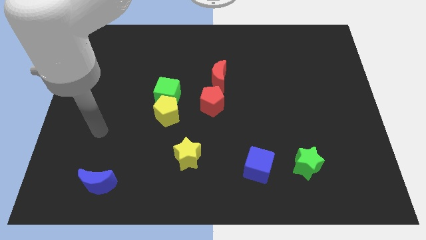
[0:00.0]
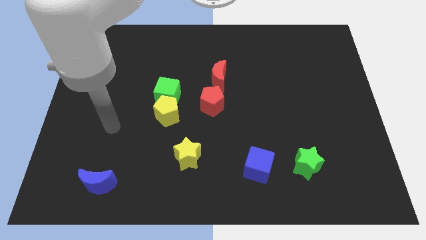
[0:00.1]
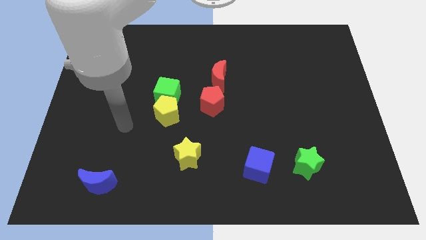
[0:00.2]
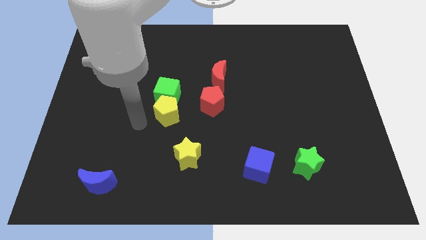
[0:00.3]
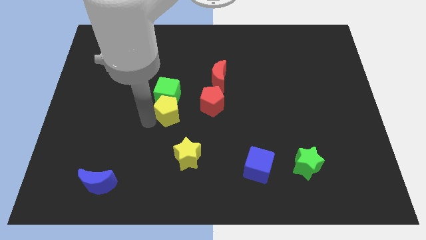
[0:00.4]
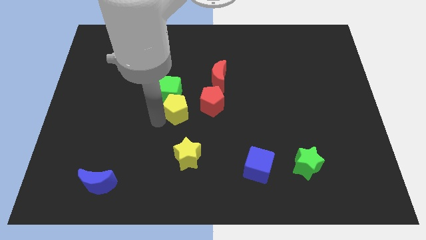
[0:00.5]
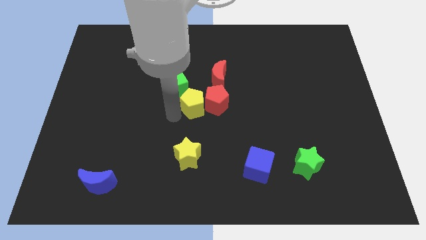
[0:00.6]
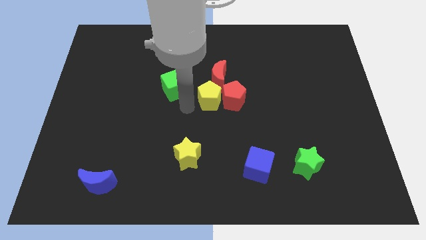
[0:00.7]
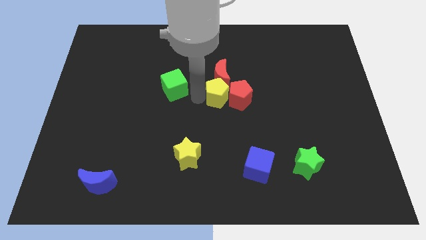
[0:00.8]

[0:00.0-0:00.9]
separate the green cube from the yellow pentagon

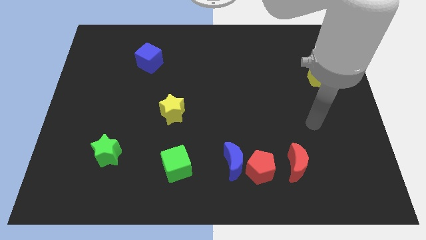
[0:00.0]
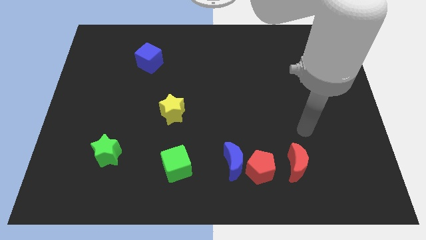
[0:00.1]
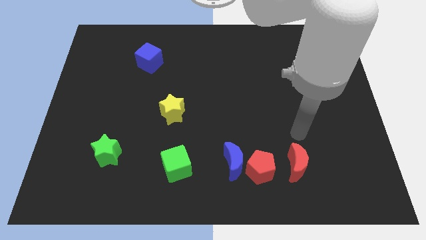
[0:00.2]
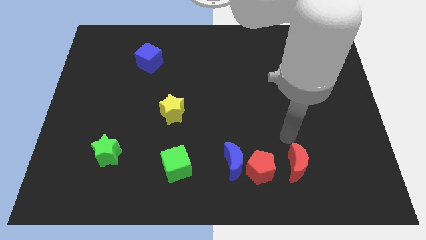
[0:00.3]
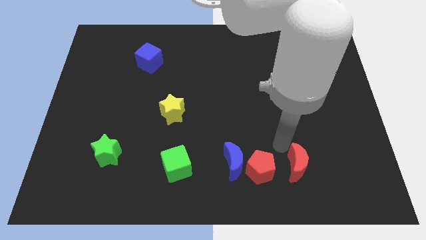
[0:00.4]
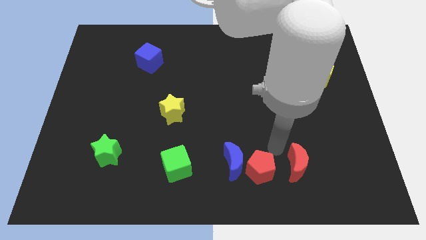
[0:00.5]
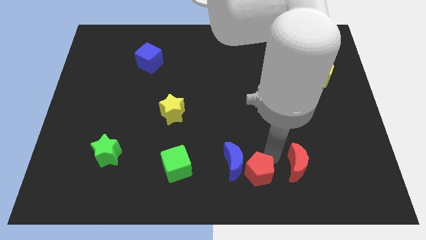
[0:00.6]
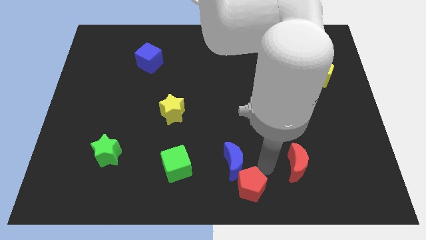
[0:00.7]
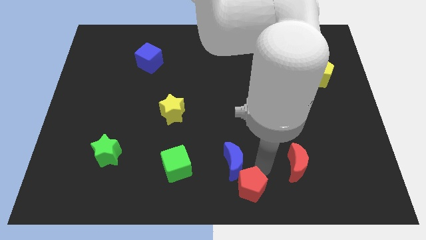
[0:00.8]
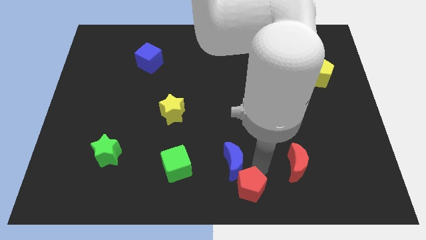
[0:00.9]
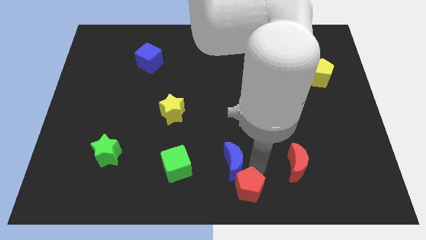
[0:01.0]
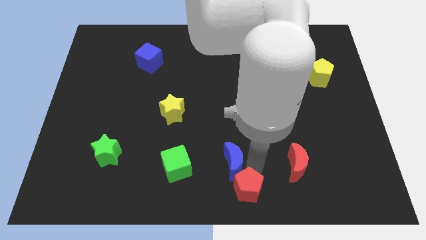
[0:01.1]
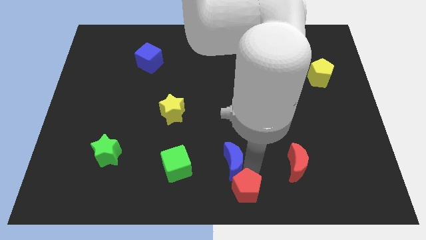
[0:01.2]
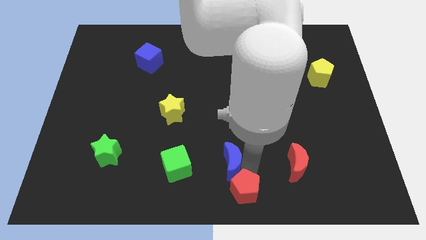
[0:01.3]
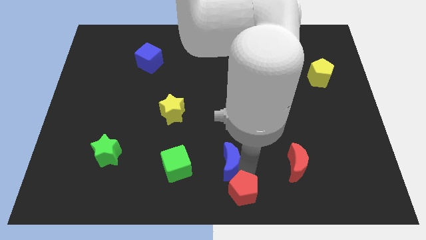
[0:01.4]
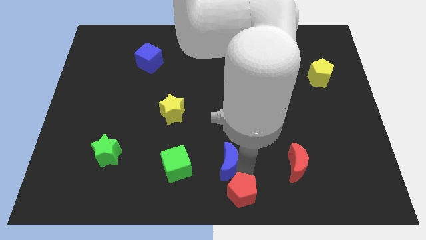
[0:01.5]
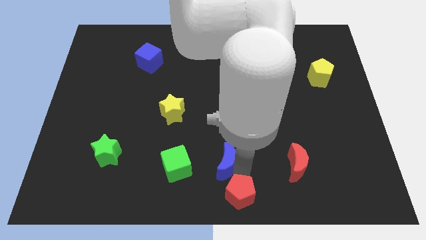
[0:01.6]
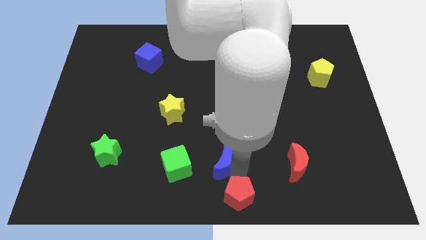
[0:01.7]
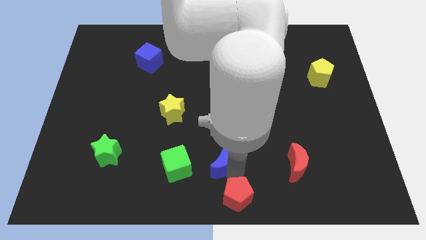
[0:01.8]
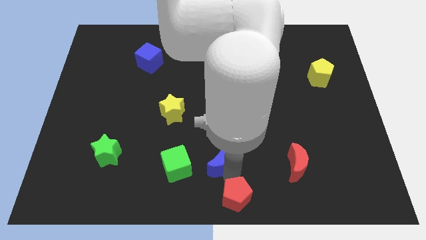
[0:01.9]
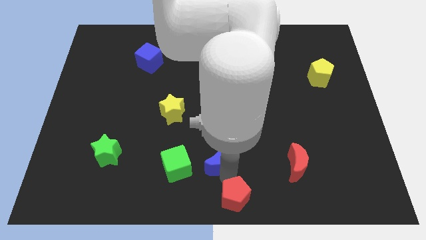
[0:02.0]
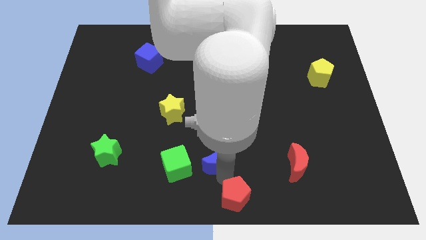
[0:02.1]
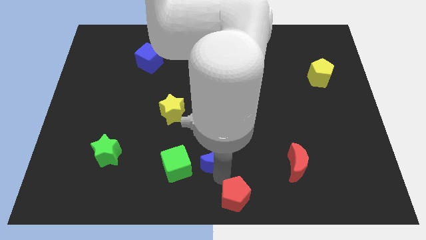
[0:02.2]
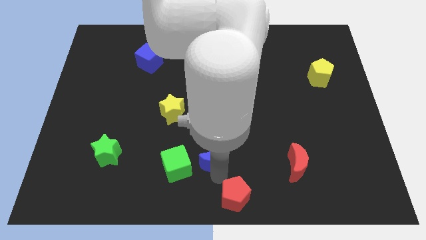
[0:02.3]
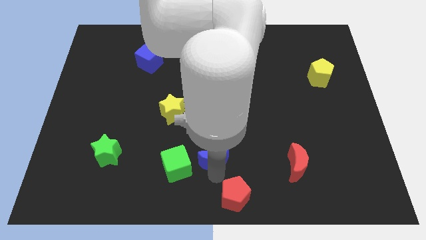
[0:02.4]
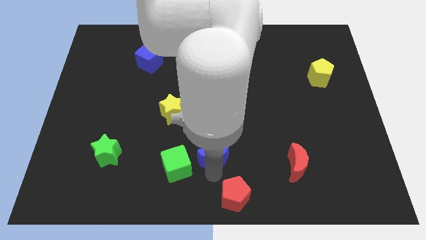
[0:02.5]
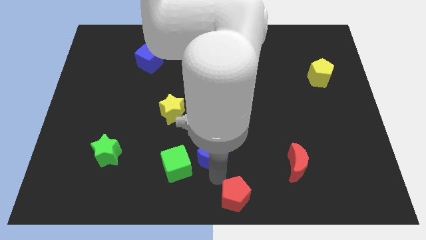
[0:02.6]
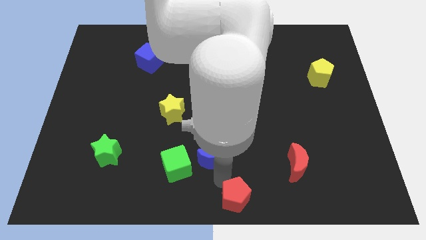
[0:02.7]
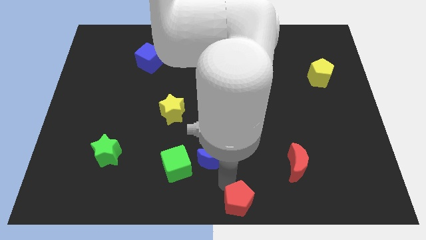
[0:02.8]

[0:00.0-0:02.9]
move the blue moon away from the red pentagon

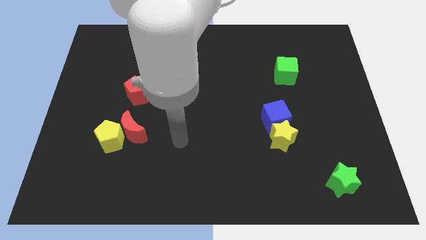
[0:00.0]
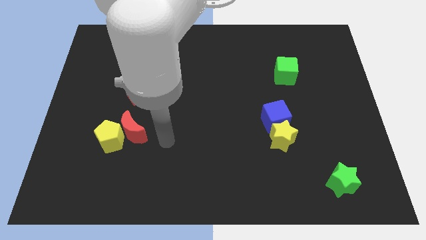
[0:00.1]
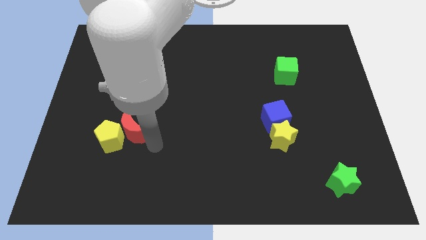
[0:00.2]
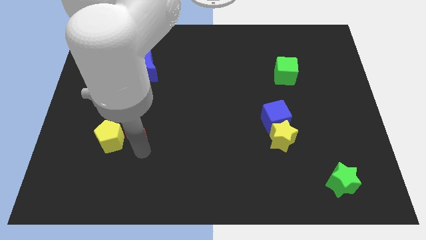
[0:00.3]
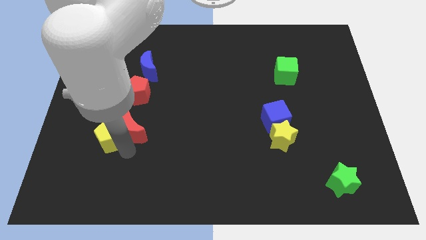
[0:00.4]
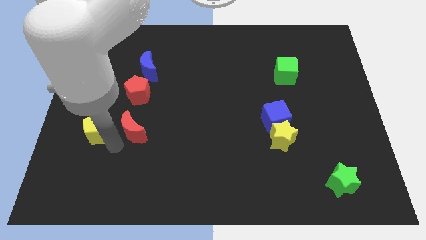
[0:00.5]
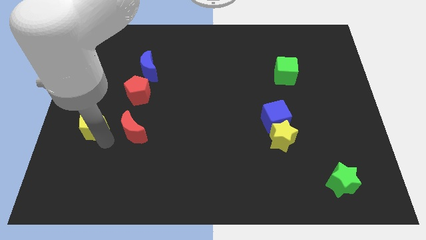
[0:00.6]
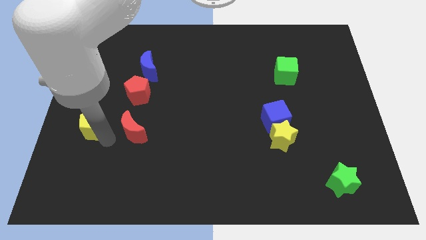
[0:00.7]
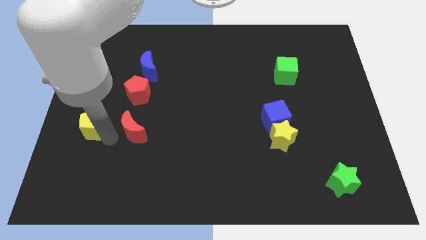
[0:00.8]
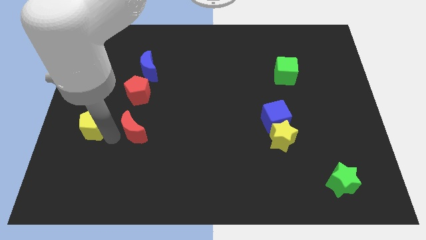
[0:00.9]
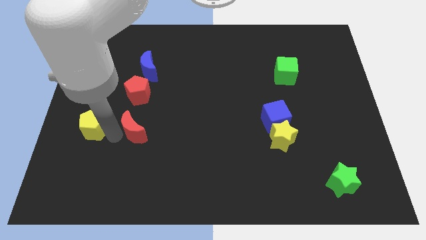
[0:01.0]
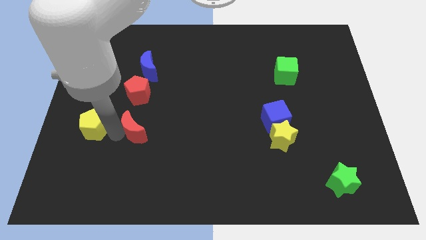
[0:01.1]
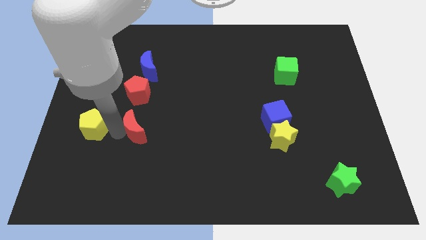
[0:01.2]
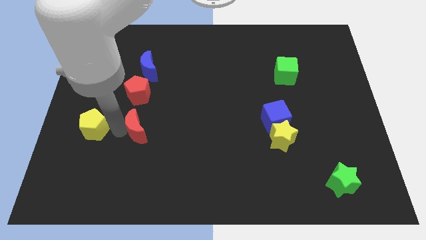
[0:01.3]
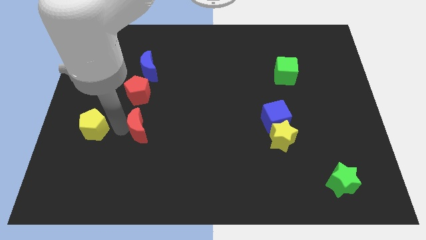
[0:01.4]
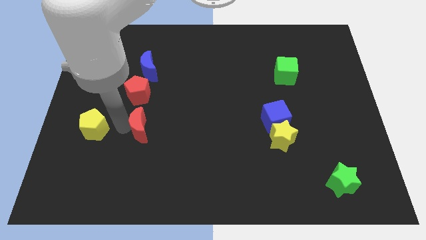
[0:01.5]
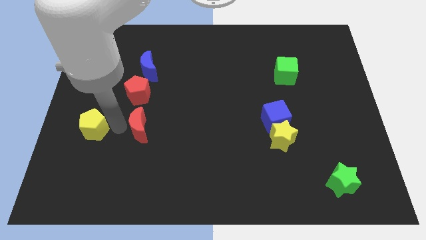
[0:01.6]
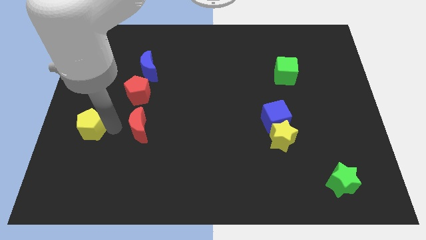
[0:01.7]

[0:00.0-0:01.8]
pull the red moon apart from the yellow pentagon

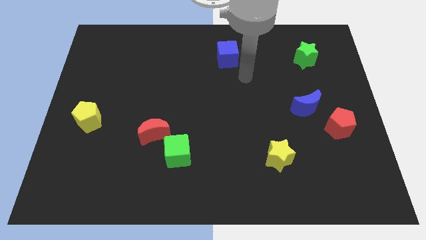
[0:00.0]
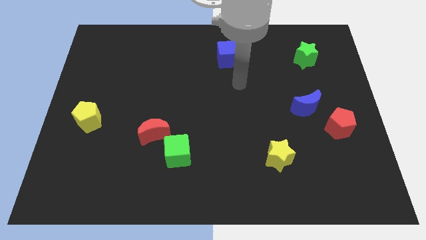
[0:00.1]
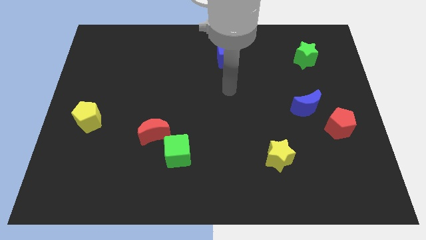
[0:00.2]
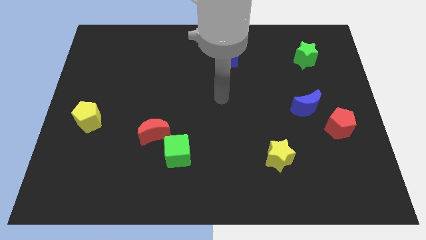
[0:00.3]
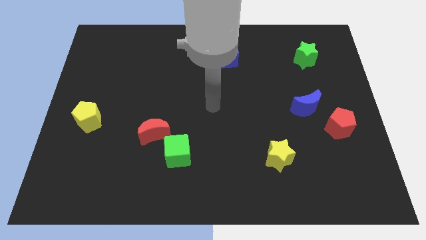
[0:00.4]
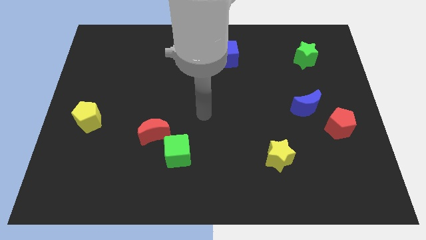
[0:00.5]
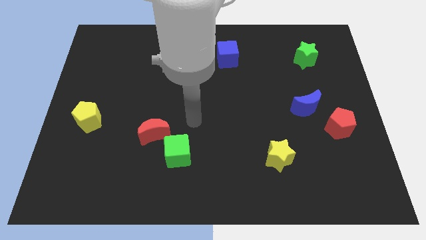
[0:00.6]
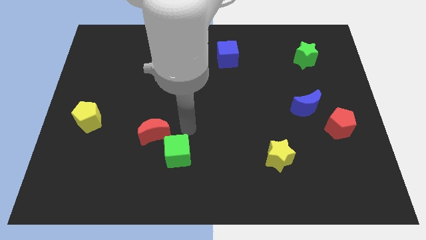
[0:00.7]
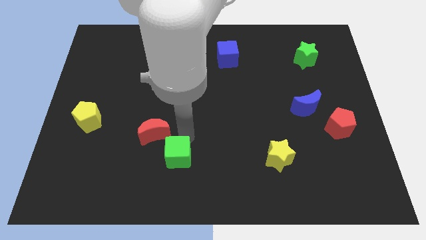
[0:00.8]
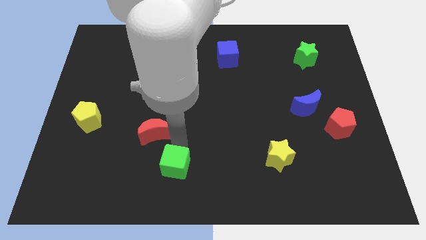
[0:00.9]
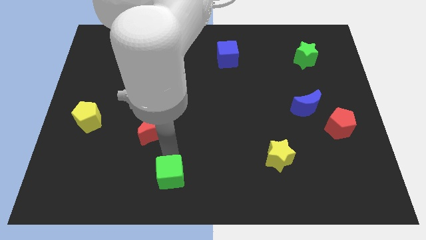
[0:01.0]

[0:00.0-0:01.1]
move the red moon away from the green cube

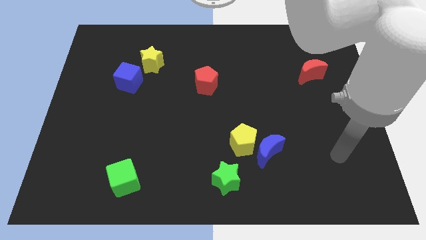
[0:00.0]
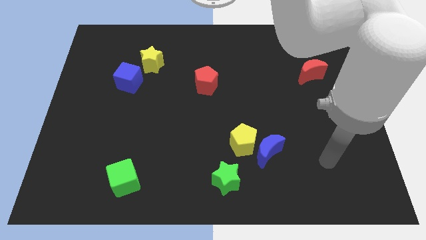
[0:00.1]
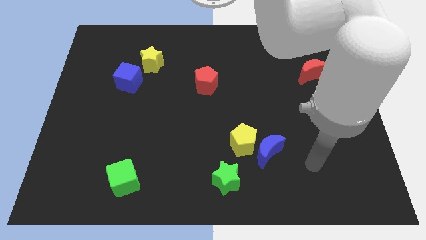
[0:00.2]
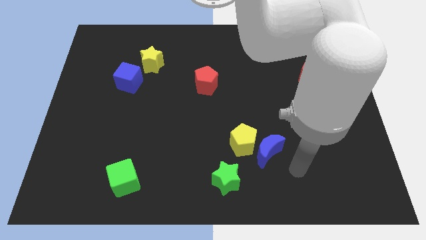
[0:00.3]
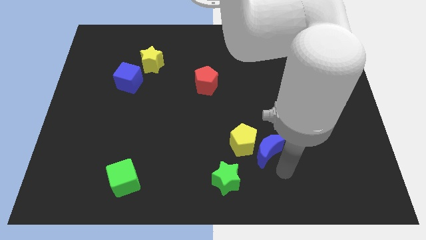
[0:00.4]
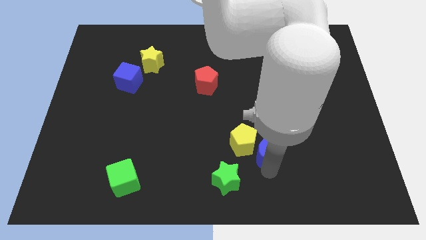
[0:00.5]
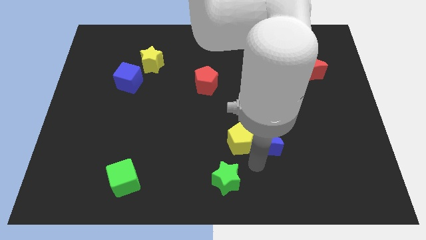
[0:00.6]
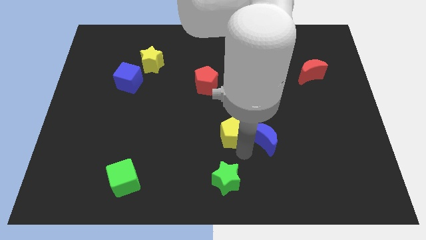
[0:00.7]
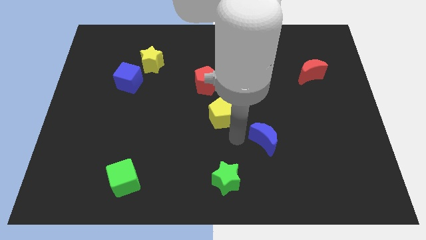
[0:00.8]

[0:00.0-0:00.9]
pull the blue moon apart from the yellow pentagon

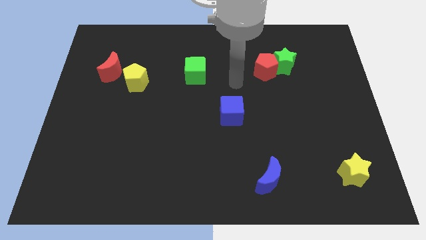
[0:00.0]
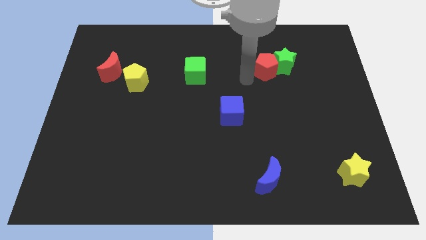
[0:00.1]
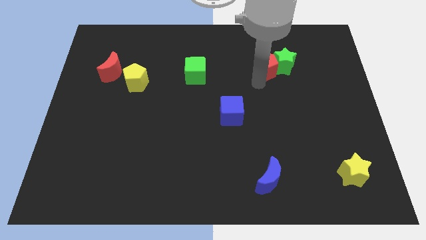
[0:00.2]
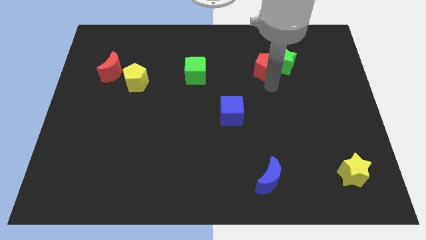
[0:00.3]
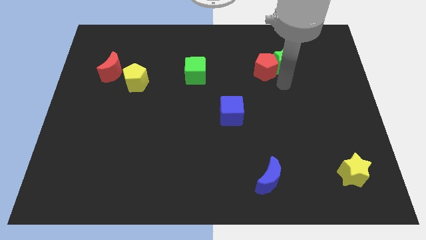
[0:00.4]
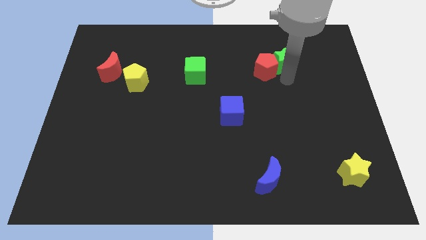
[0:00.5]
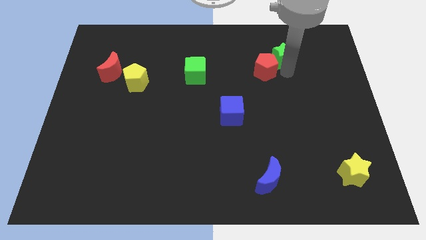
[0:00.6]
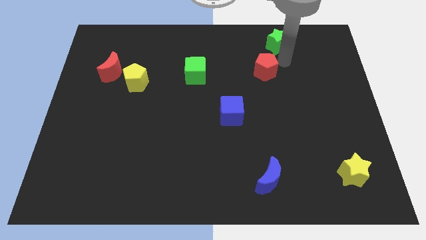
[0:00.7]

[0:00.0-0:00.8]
separate the red pentagon from the green star

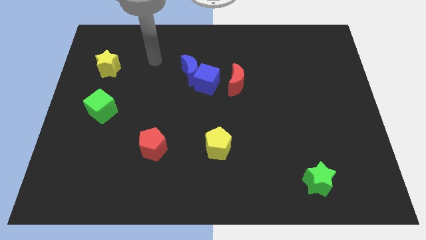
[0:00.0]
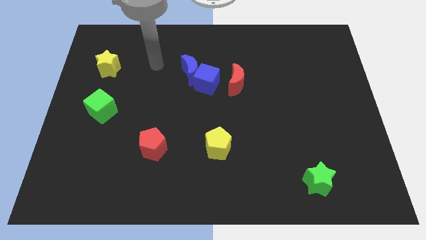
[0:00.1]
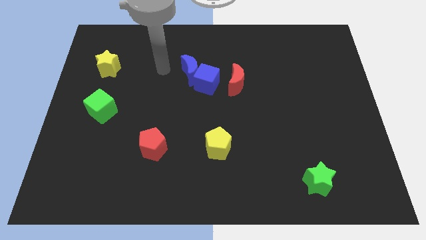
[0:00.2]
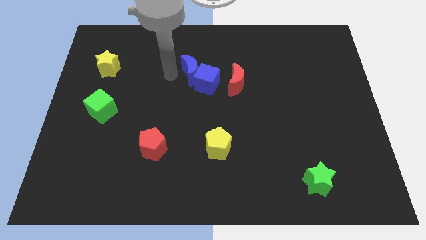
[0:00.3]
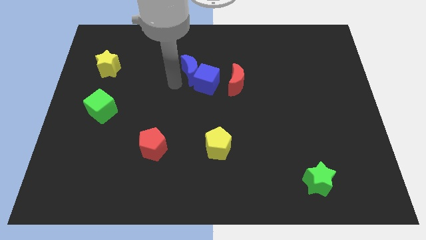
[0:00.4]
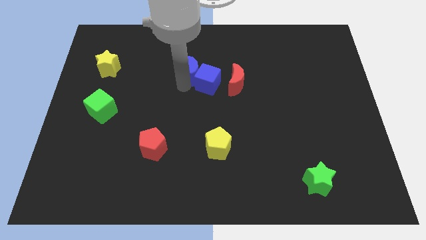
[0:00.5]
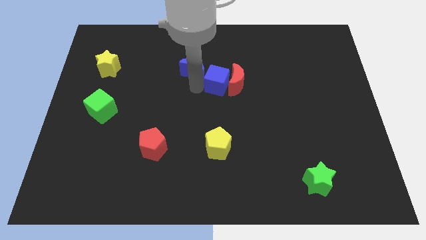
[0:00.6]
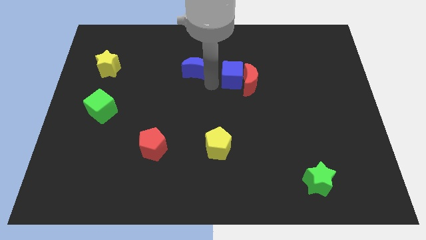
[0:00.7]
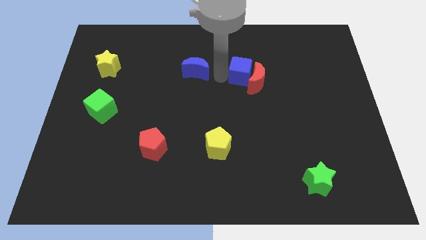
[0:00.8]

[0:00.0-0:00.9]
pull the blue moon apart from the blue cube
